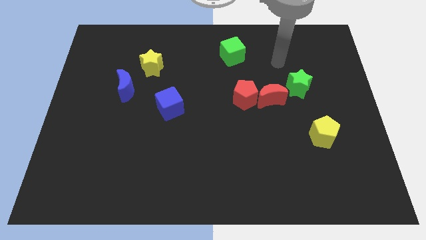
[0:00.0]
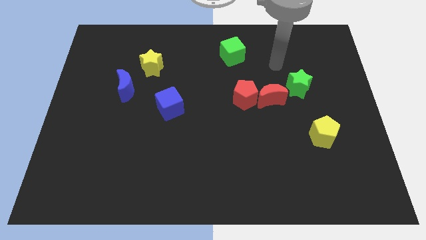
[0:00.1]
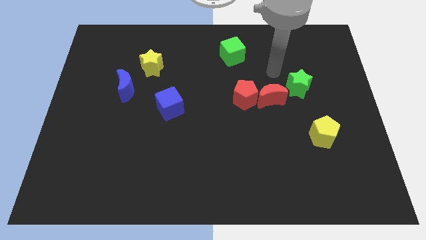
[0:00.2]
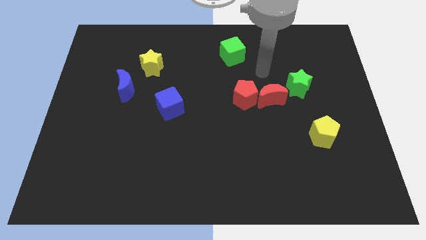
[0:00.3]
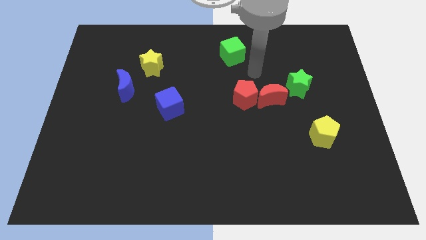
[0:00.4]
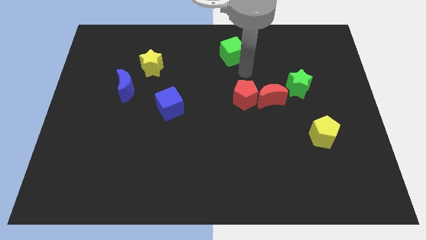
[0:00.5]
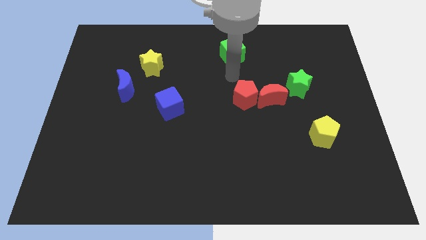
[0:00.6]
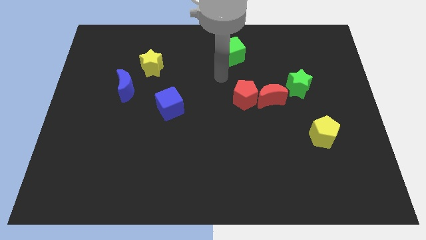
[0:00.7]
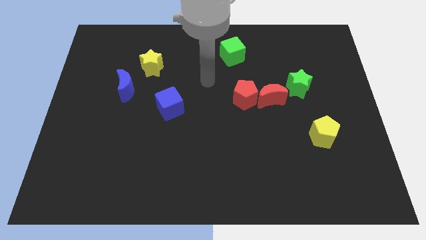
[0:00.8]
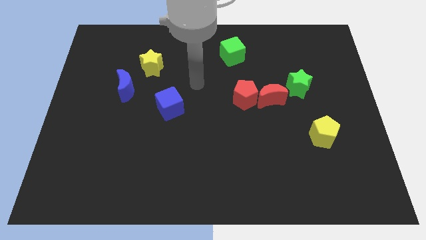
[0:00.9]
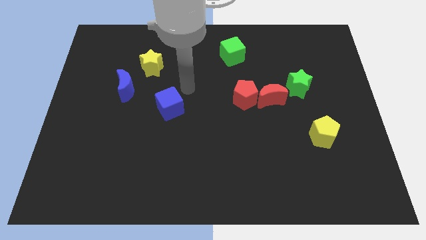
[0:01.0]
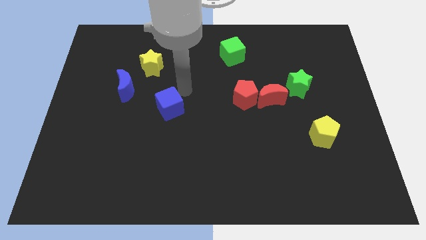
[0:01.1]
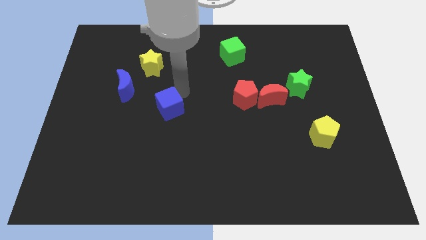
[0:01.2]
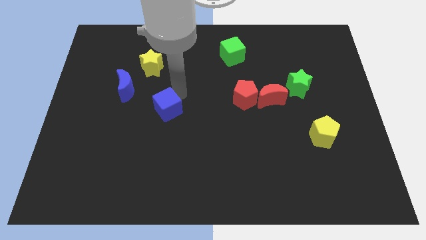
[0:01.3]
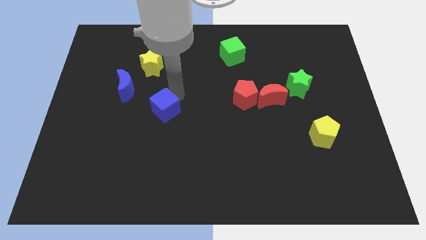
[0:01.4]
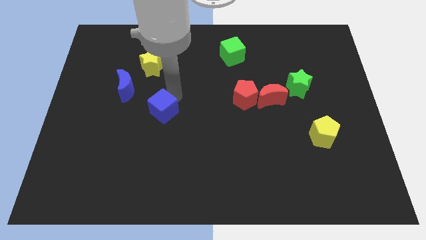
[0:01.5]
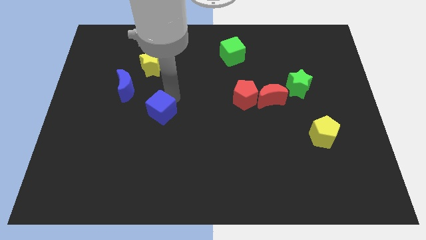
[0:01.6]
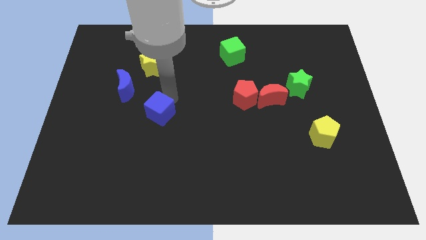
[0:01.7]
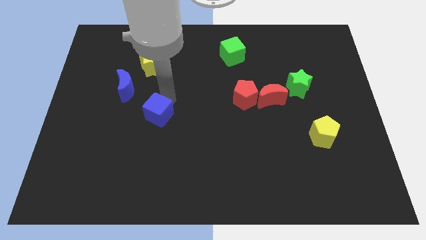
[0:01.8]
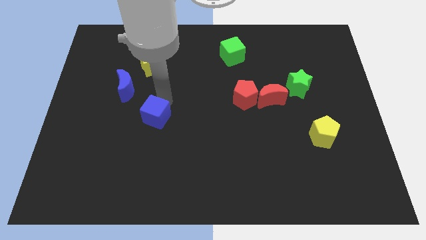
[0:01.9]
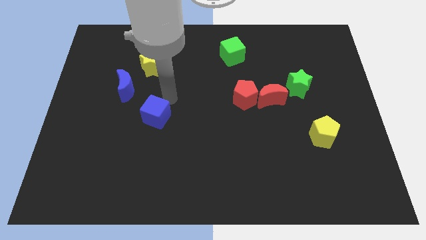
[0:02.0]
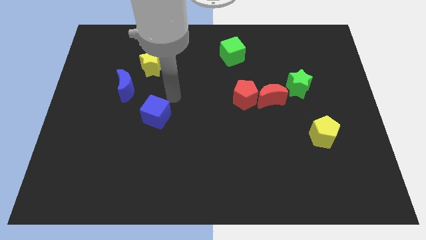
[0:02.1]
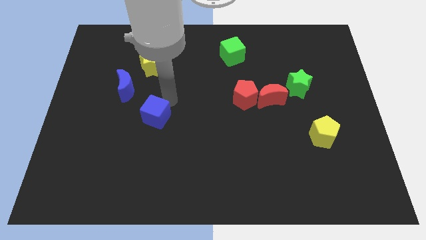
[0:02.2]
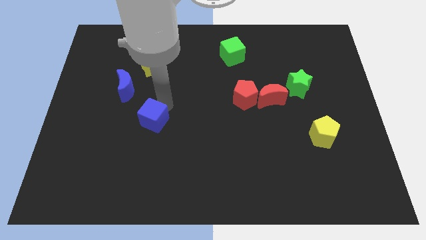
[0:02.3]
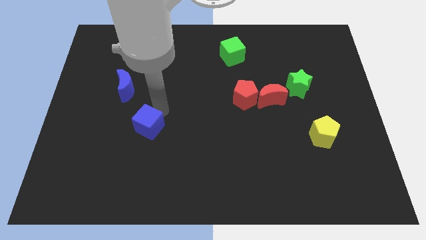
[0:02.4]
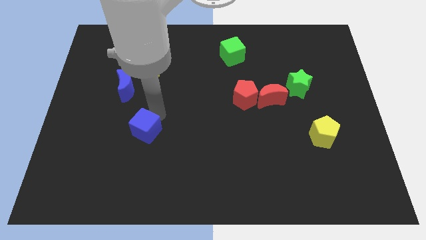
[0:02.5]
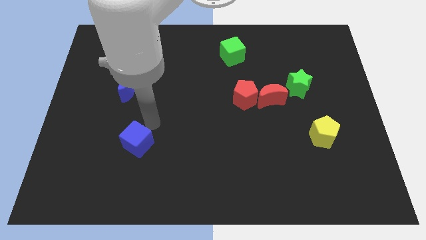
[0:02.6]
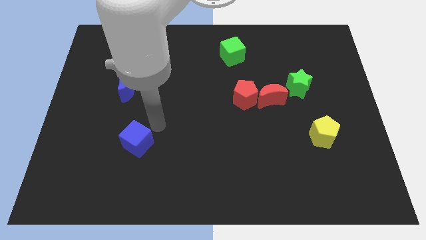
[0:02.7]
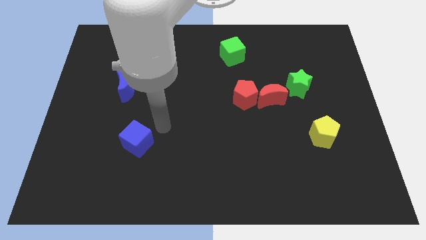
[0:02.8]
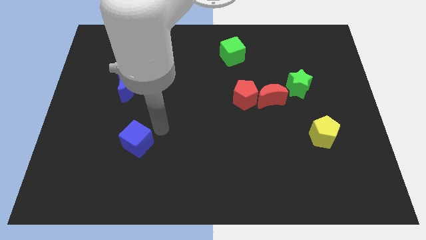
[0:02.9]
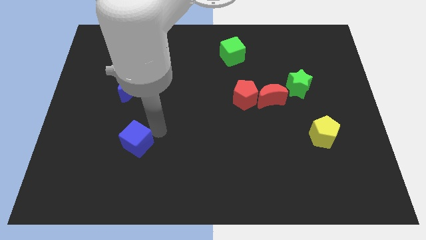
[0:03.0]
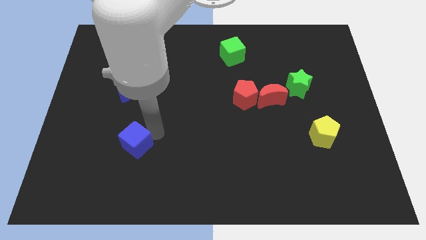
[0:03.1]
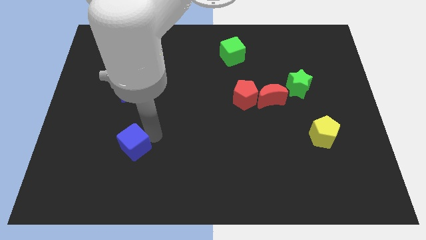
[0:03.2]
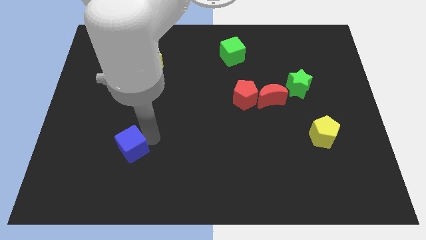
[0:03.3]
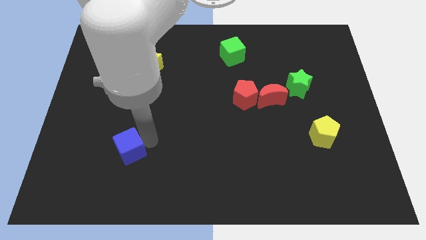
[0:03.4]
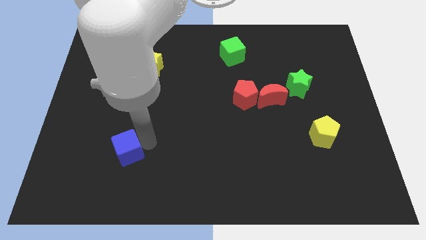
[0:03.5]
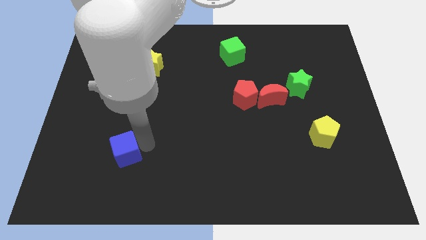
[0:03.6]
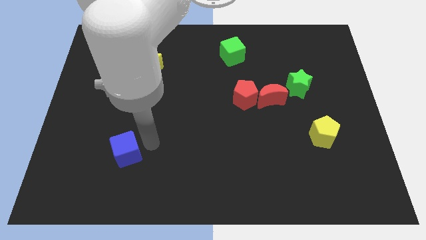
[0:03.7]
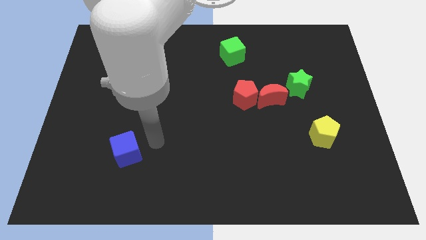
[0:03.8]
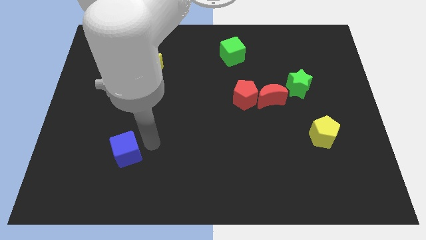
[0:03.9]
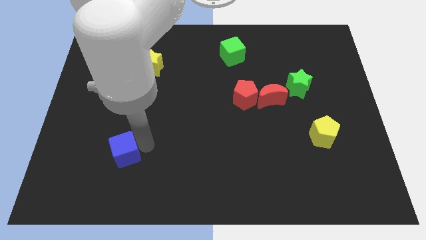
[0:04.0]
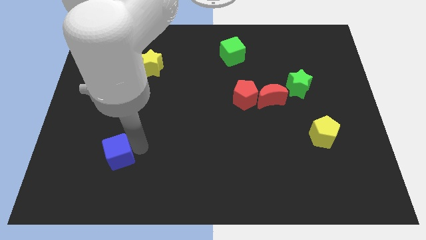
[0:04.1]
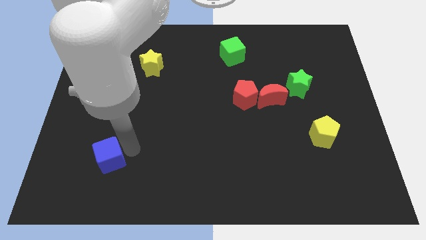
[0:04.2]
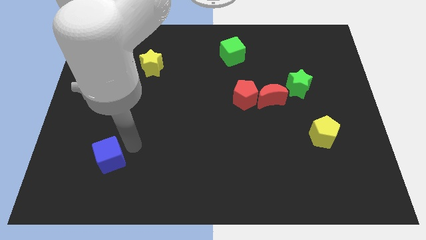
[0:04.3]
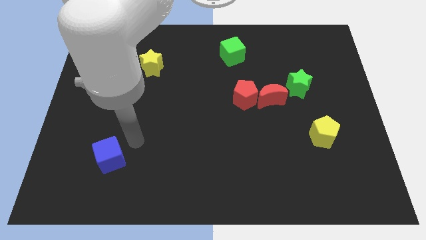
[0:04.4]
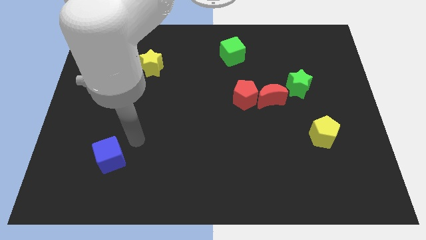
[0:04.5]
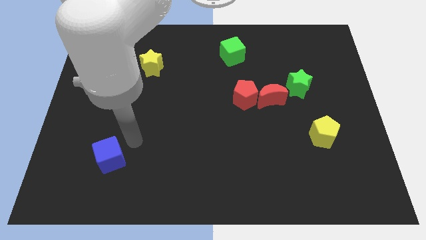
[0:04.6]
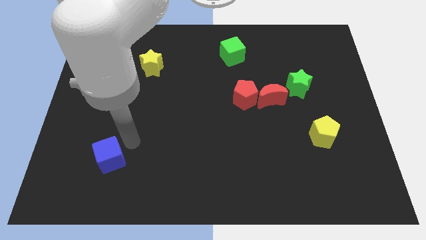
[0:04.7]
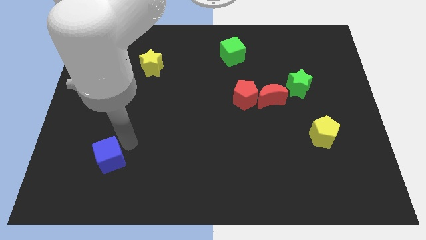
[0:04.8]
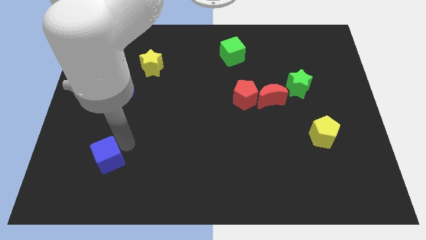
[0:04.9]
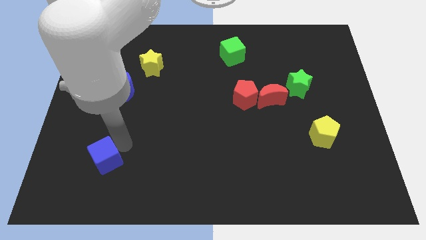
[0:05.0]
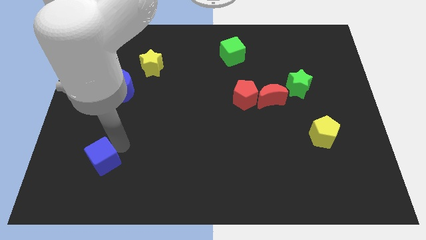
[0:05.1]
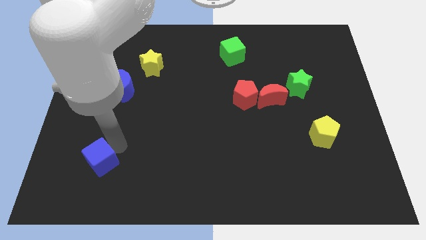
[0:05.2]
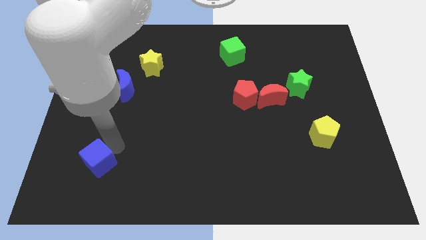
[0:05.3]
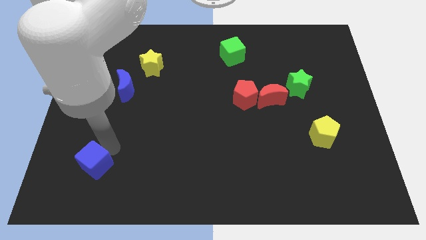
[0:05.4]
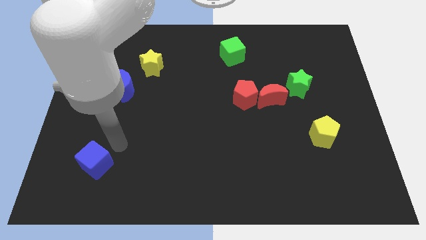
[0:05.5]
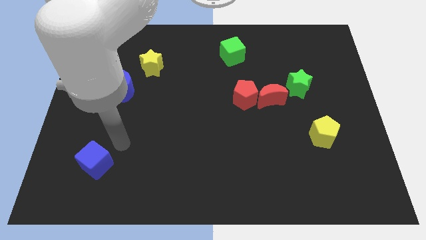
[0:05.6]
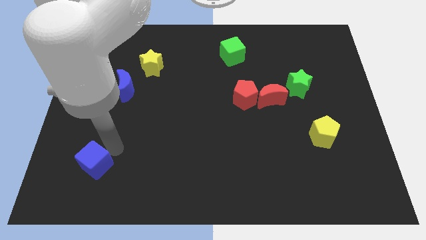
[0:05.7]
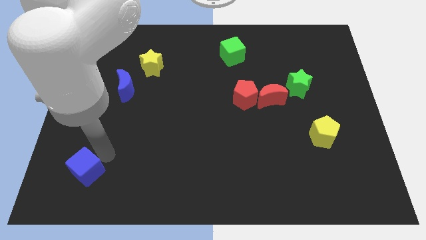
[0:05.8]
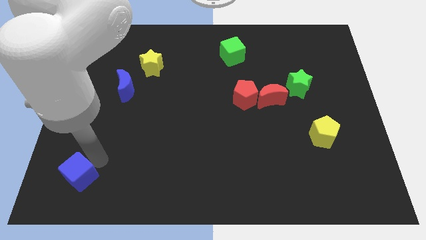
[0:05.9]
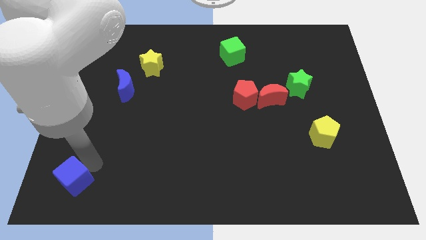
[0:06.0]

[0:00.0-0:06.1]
slide the blue cube to the bottom left of the board
